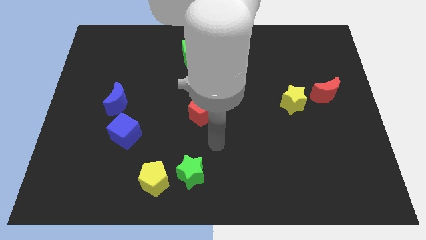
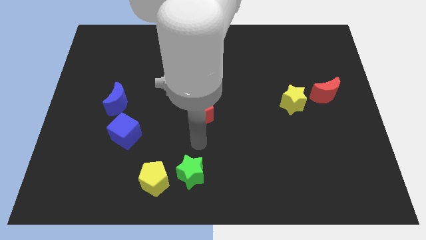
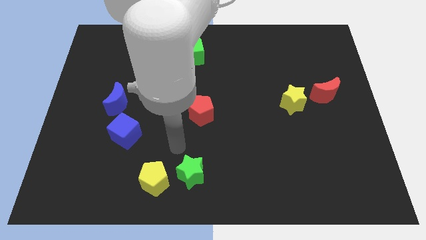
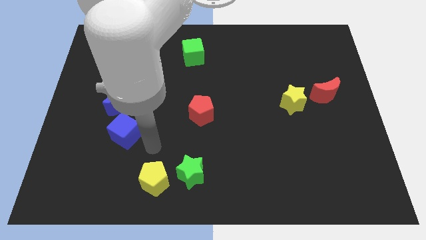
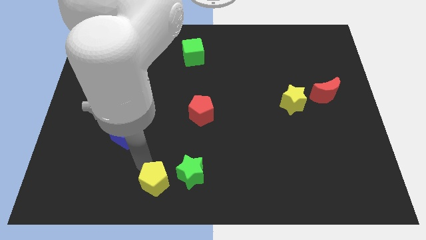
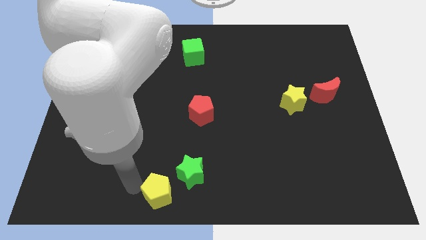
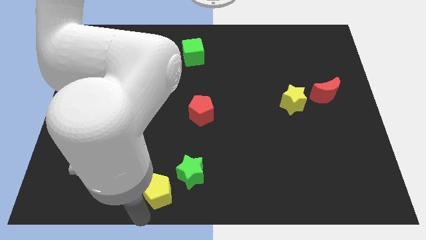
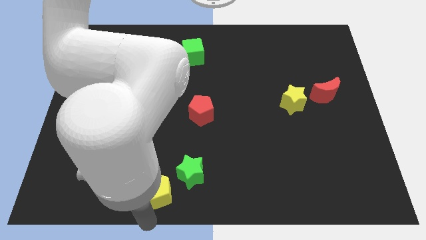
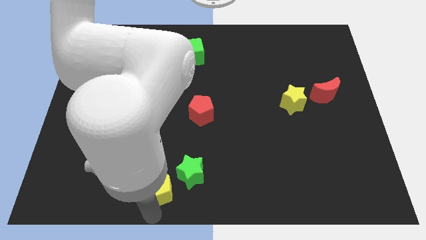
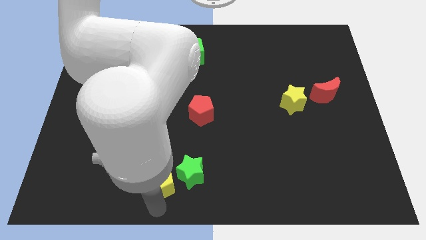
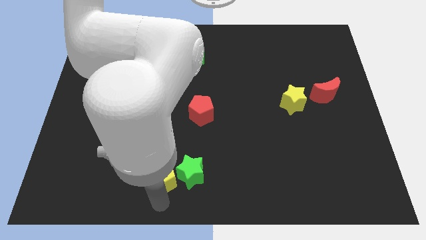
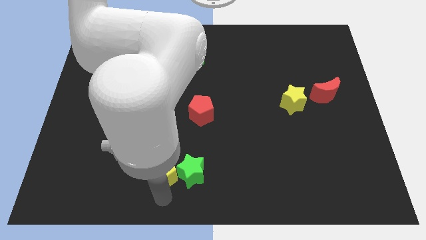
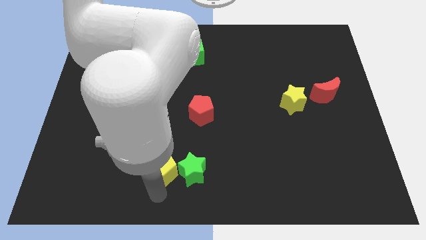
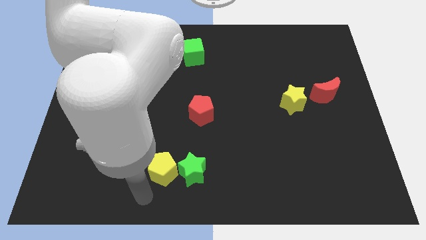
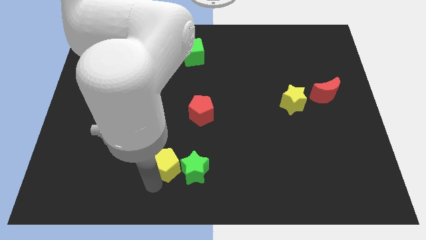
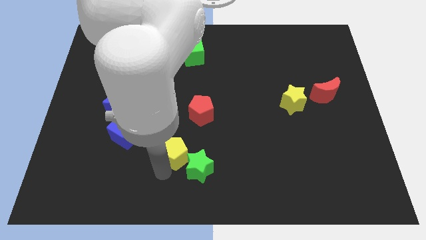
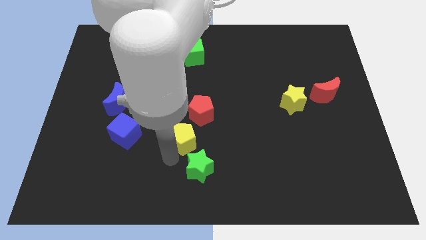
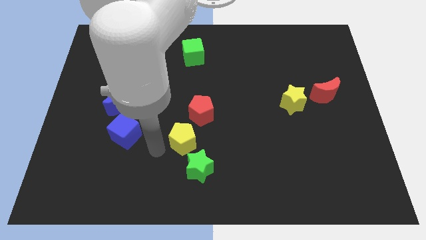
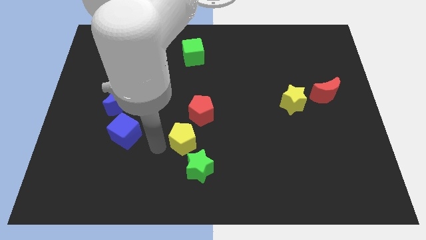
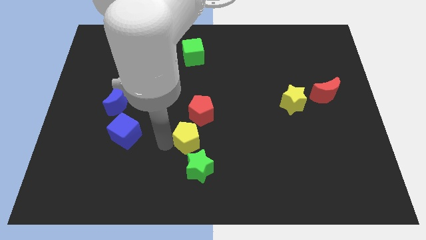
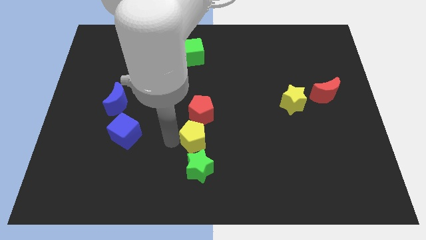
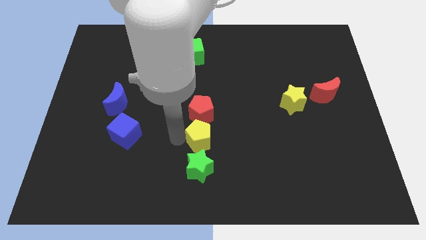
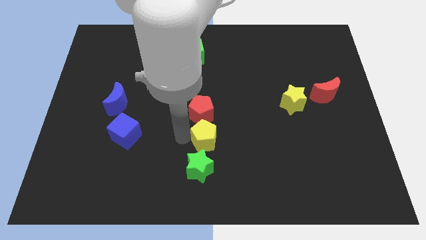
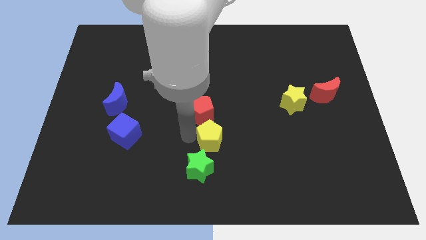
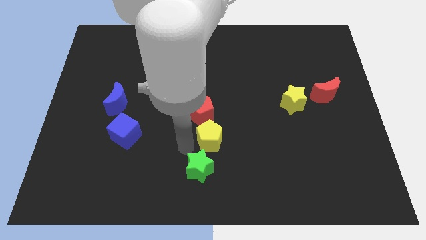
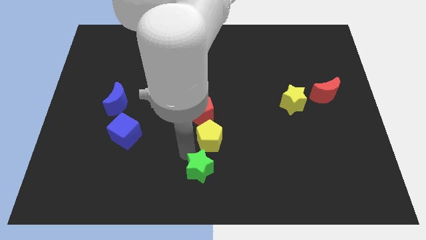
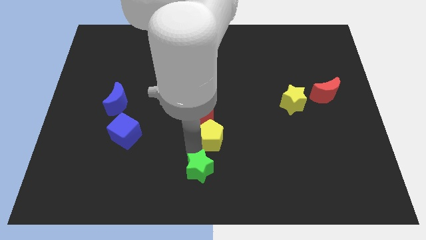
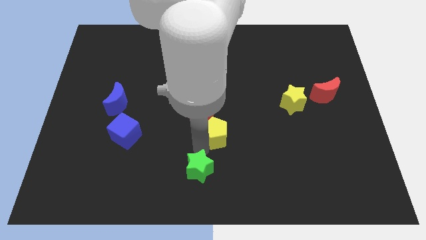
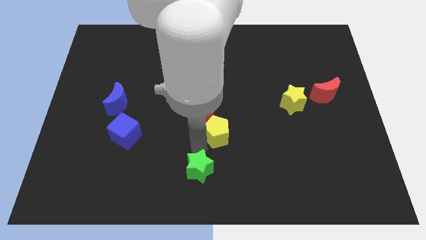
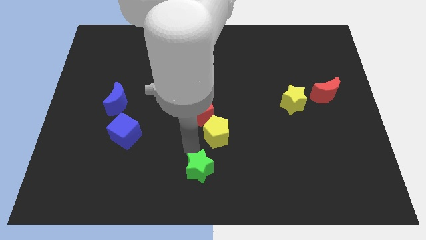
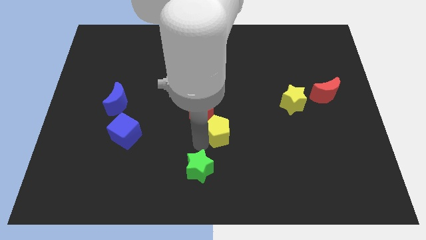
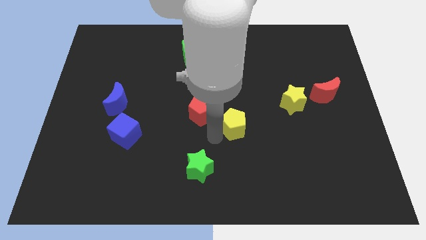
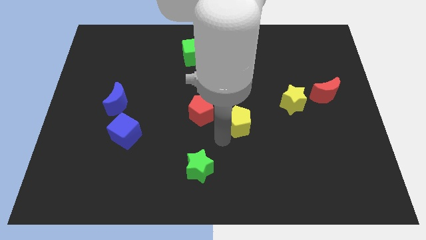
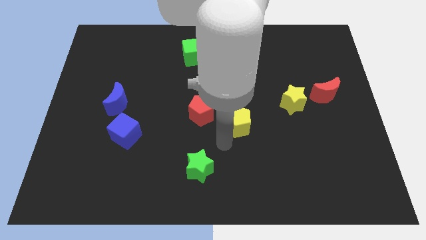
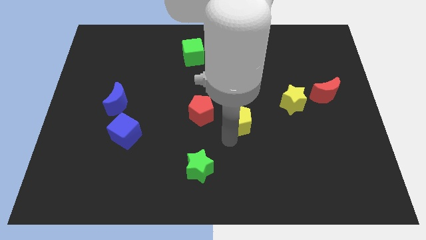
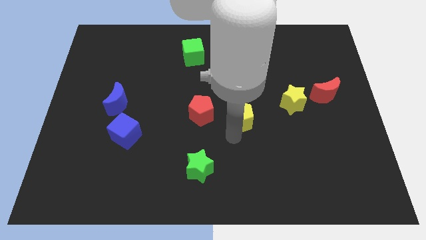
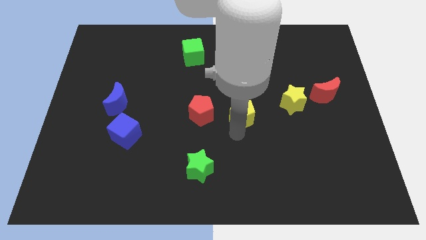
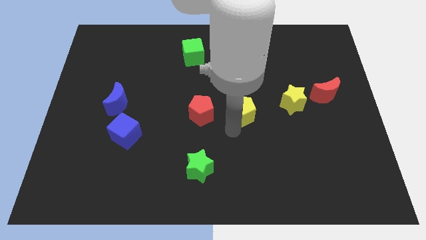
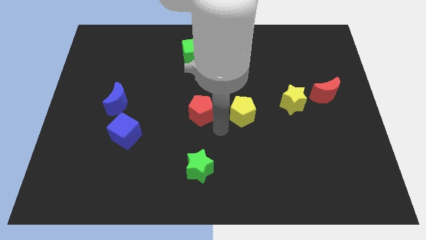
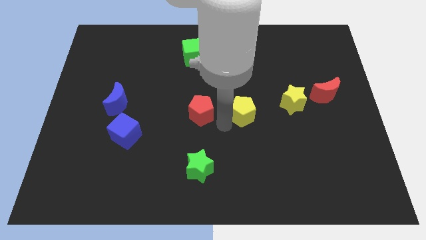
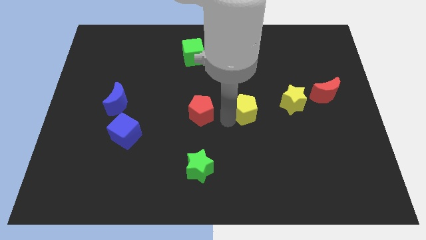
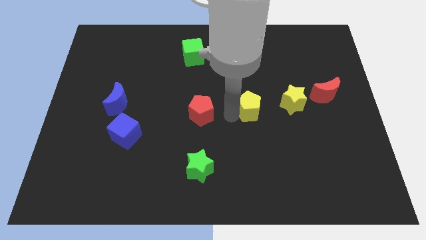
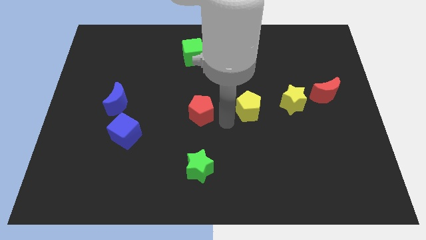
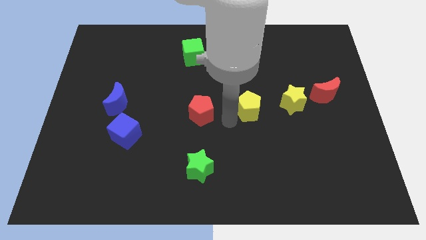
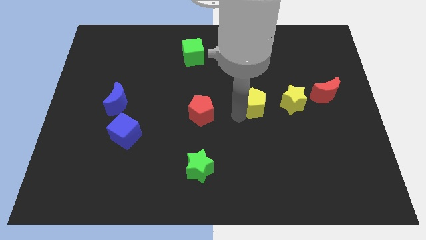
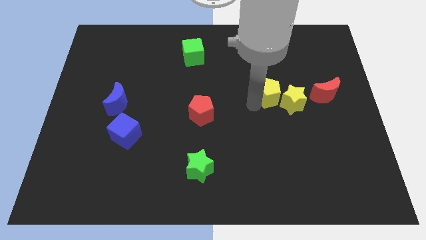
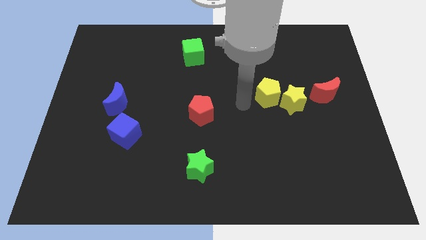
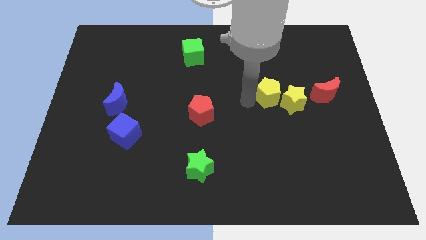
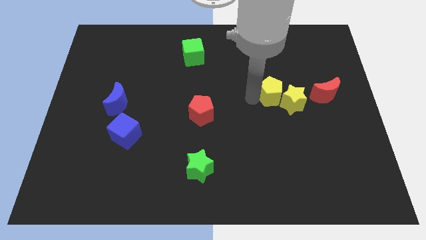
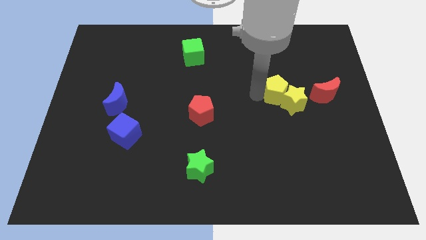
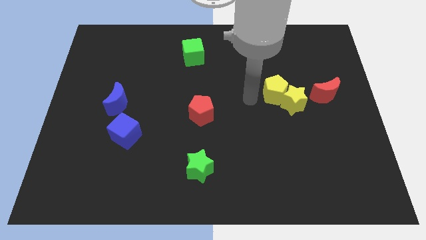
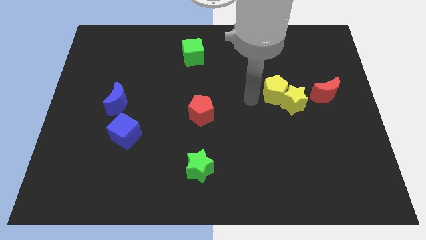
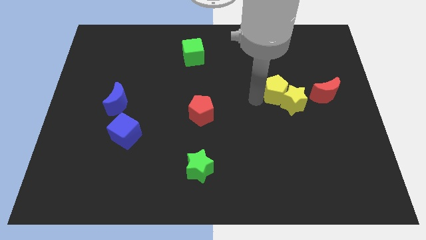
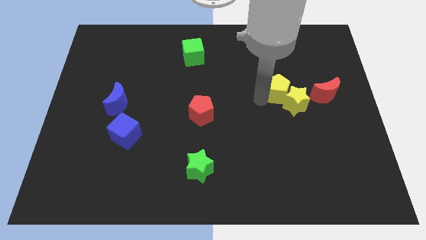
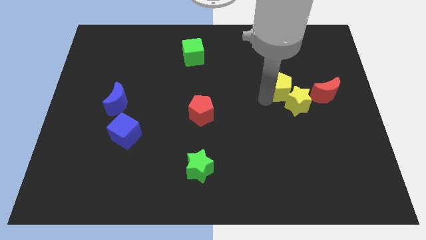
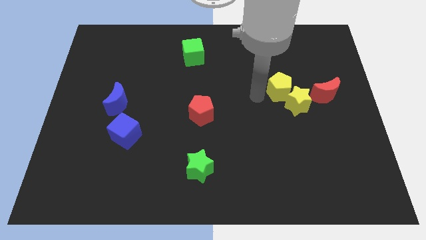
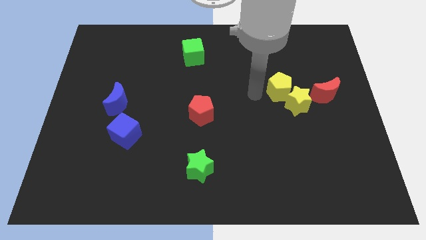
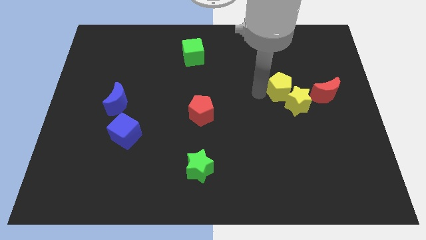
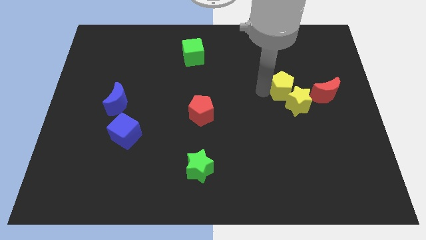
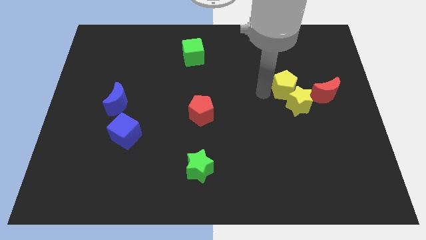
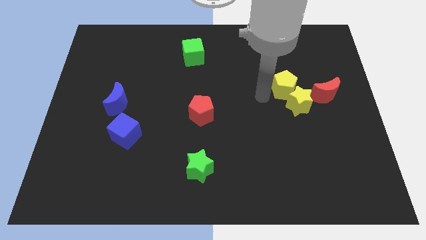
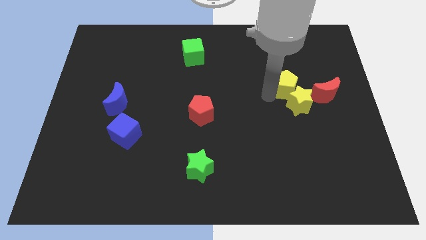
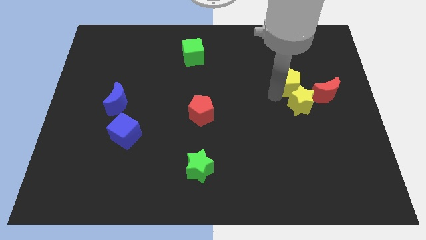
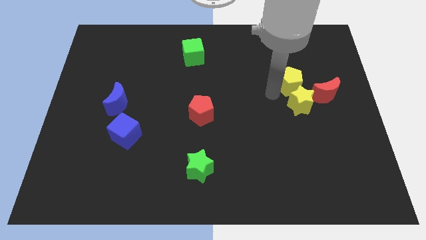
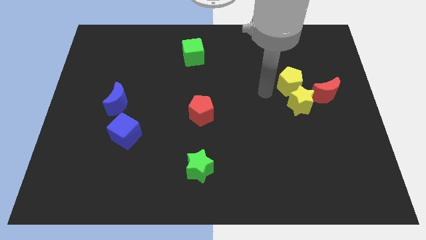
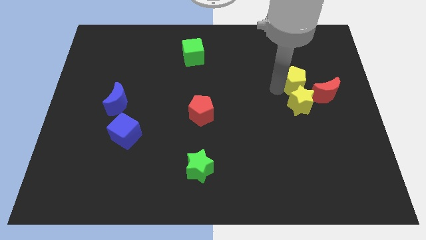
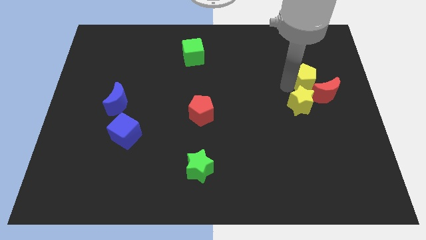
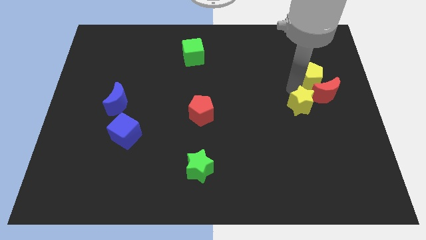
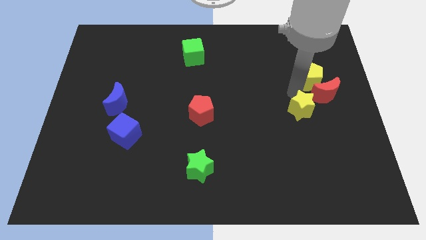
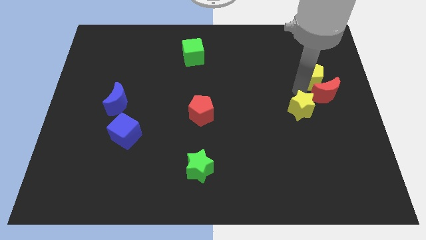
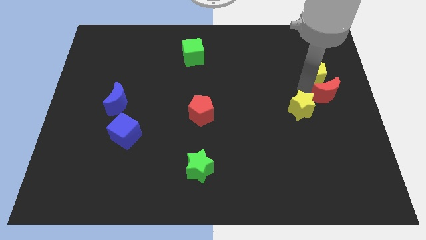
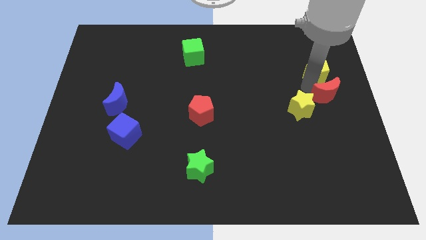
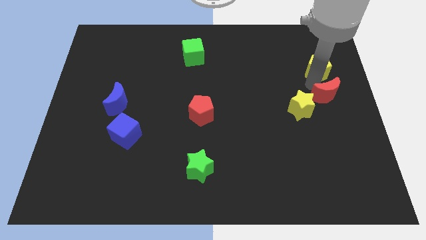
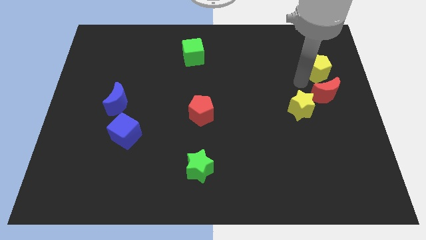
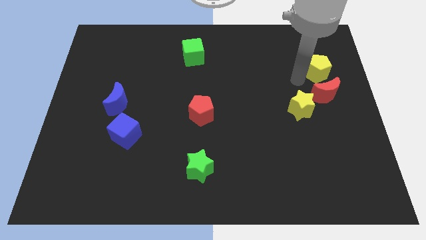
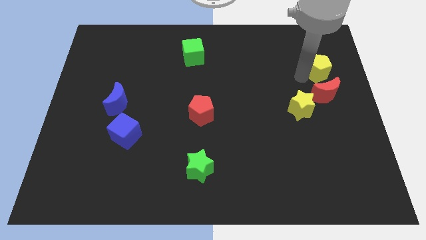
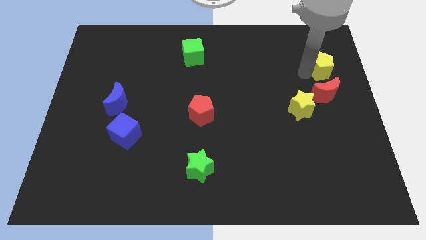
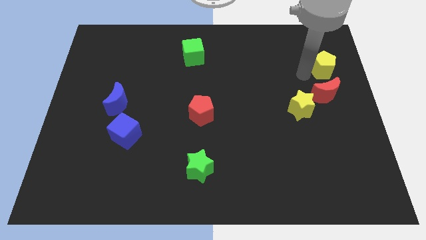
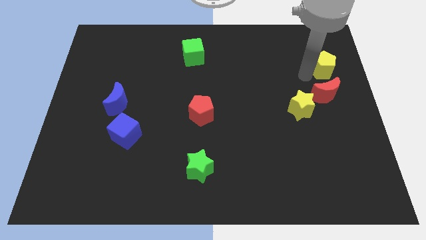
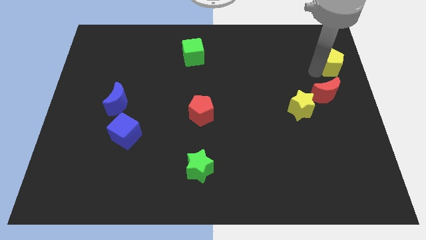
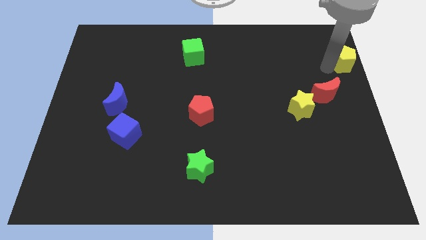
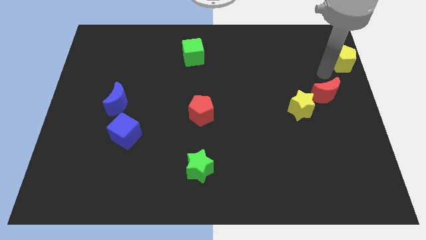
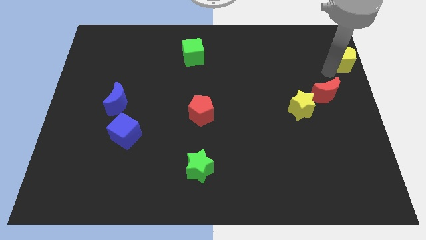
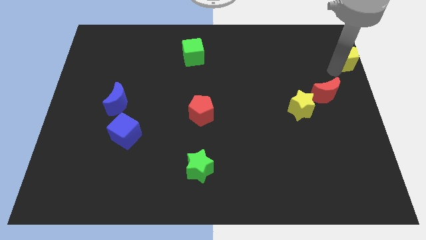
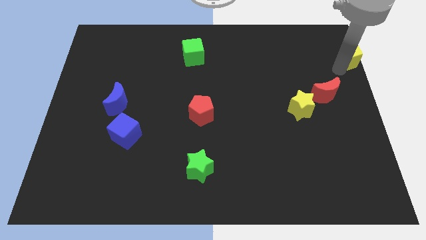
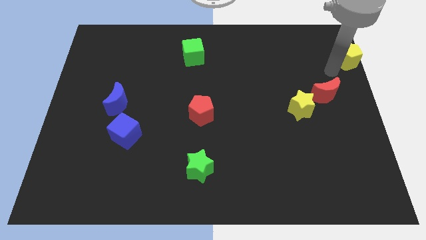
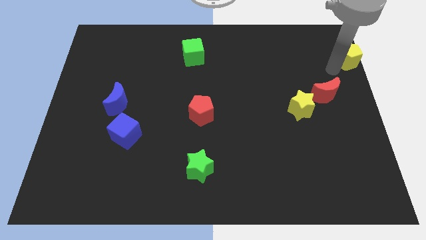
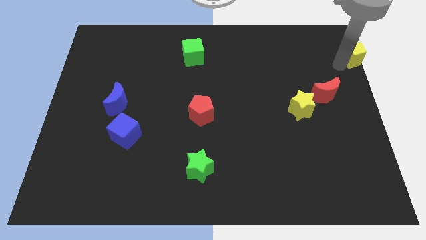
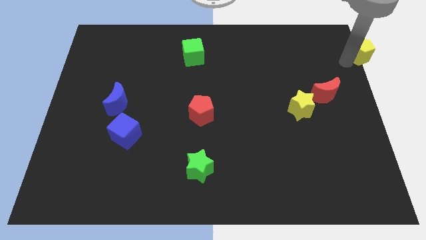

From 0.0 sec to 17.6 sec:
push the yellow pentagon to the top right
